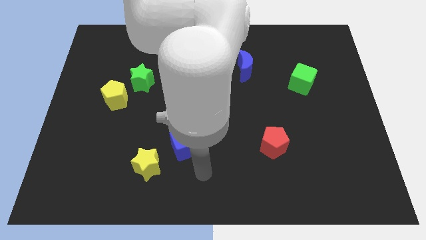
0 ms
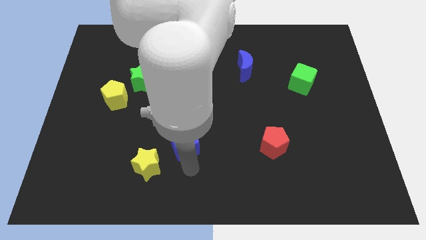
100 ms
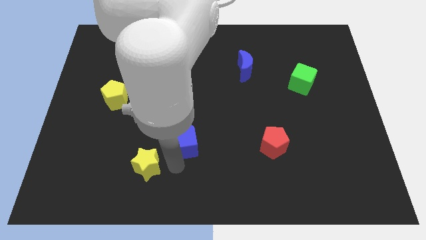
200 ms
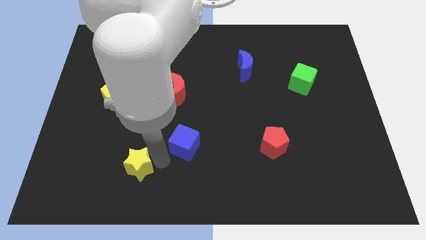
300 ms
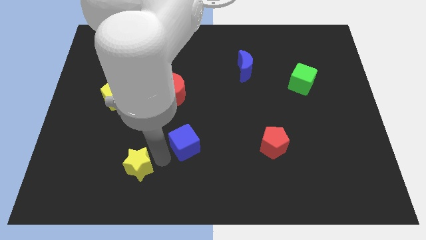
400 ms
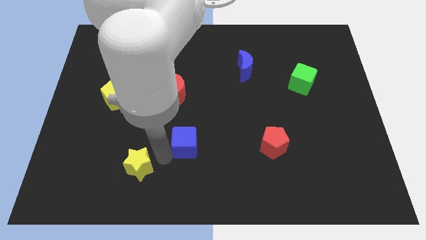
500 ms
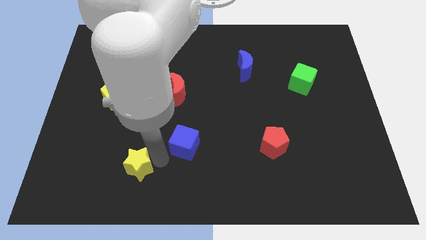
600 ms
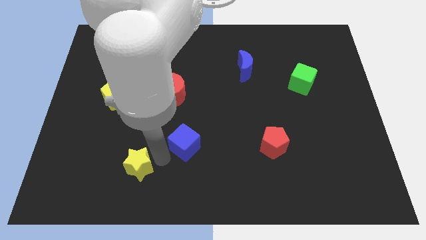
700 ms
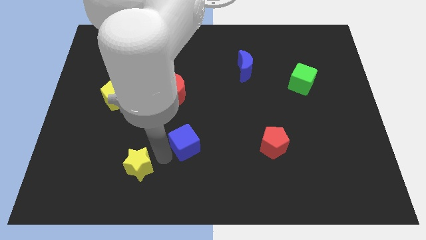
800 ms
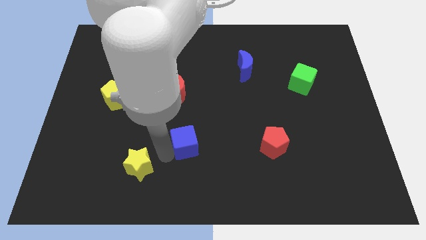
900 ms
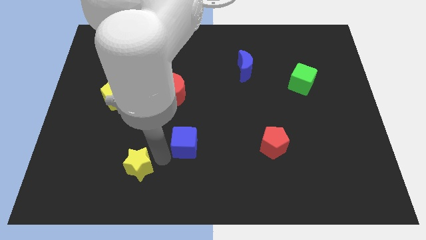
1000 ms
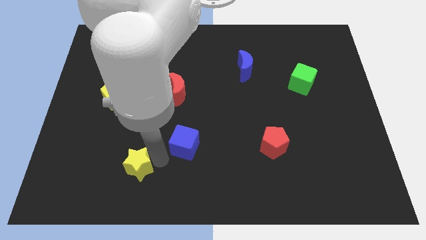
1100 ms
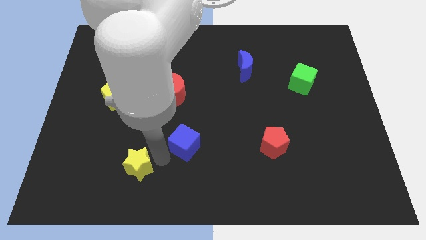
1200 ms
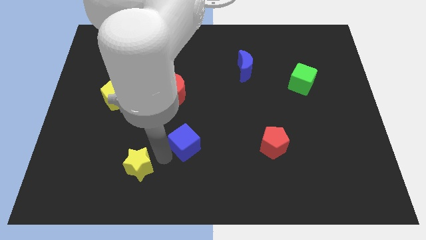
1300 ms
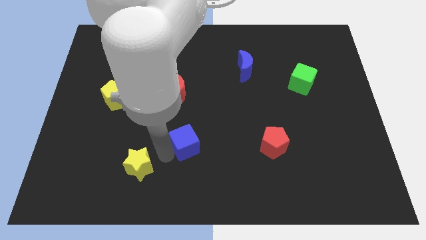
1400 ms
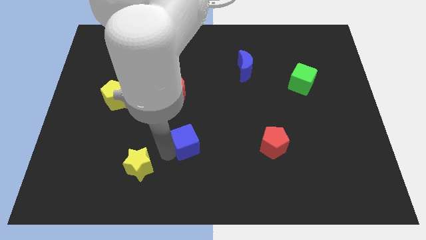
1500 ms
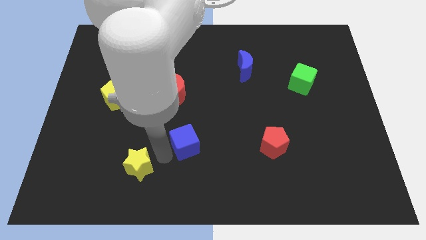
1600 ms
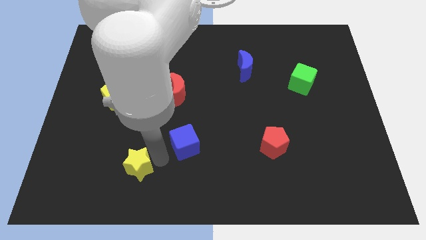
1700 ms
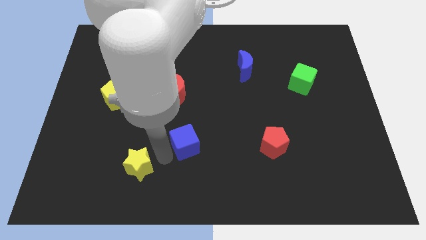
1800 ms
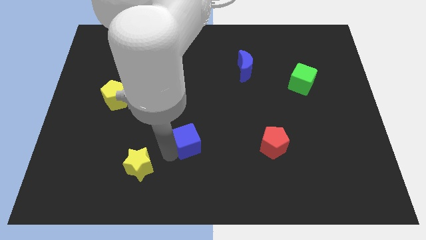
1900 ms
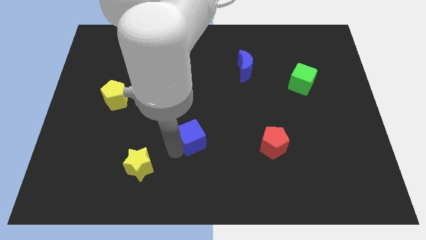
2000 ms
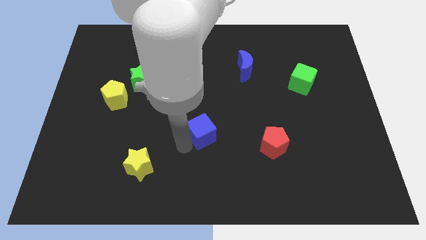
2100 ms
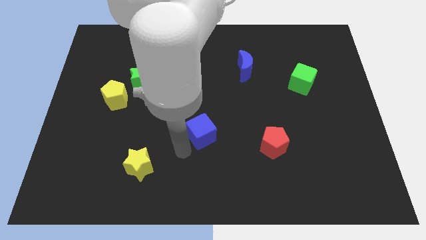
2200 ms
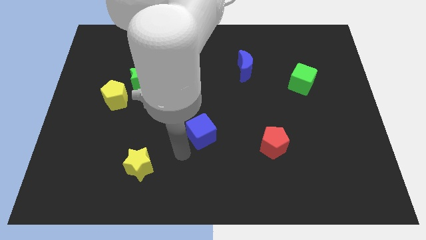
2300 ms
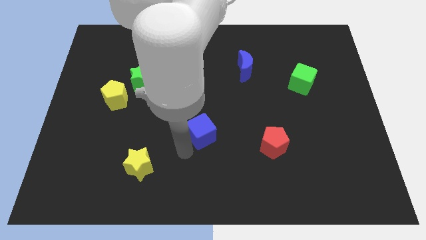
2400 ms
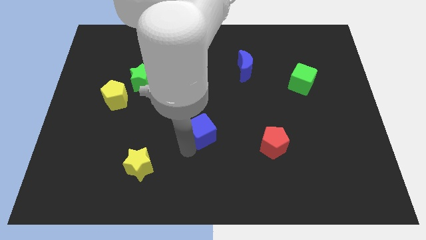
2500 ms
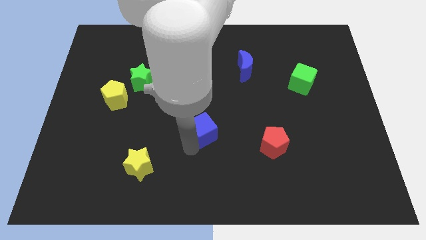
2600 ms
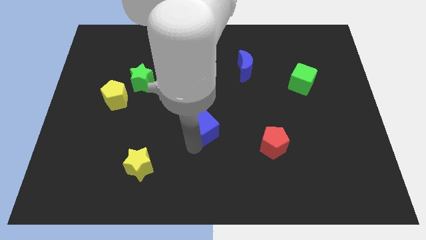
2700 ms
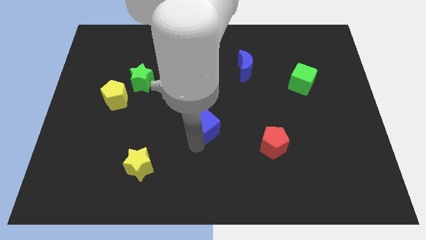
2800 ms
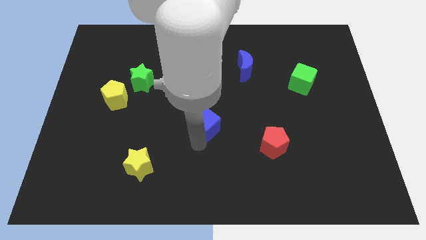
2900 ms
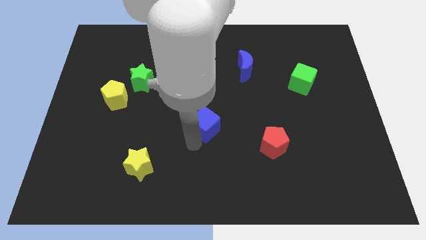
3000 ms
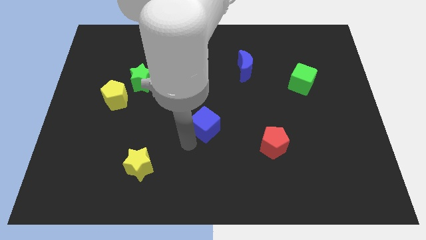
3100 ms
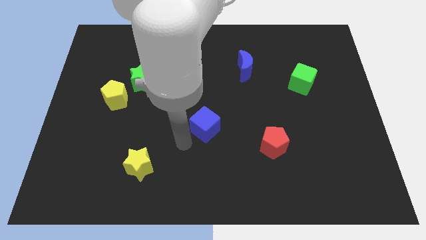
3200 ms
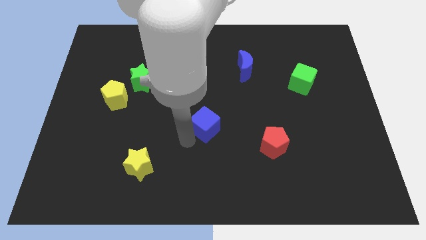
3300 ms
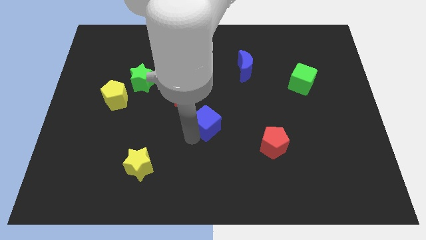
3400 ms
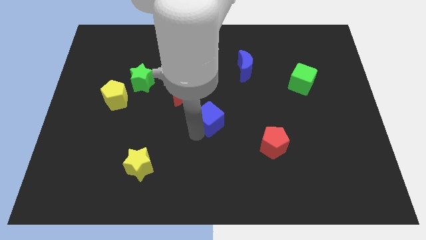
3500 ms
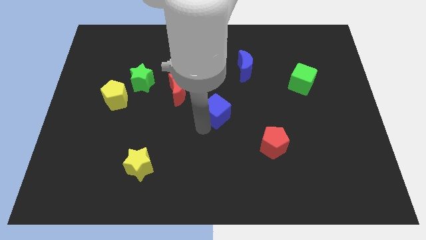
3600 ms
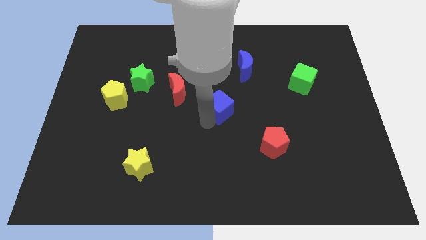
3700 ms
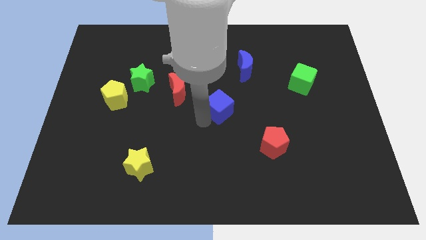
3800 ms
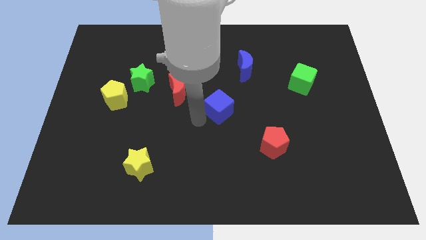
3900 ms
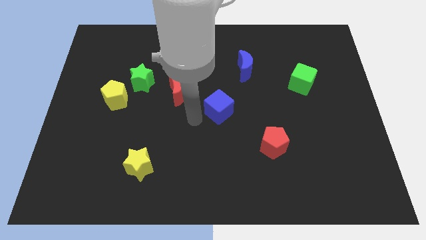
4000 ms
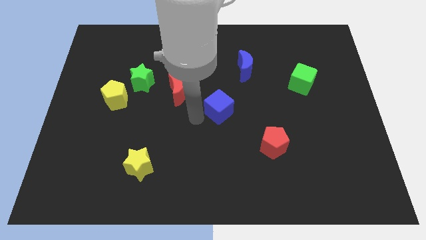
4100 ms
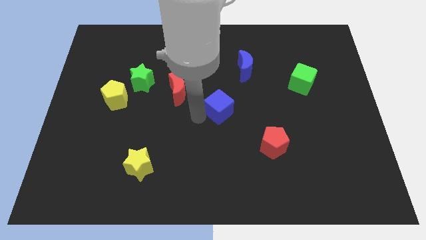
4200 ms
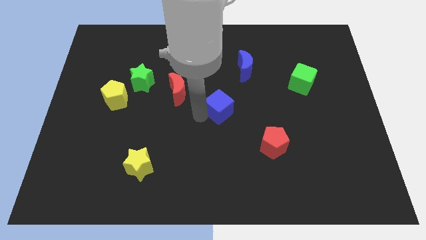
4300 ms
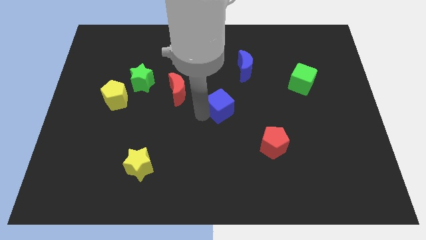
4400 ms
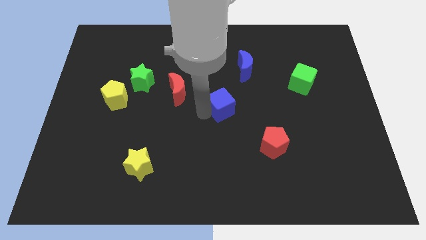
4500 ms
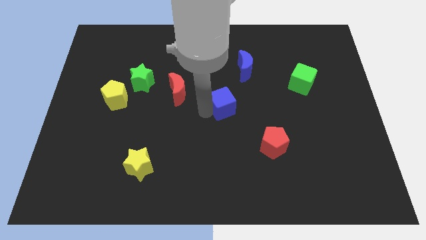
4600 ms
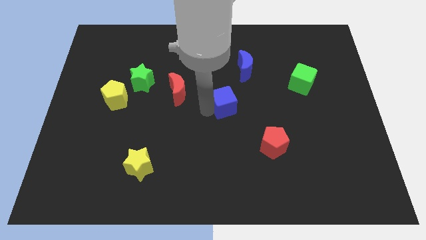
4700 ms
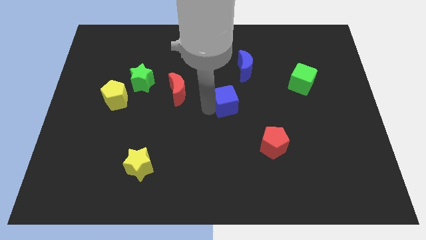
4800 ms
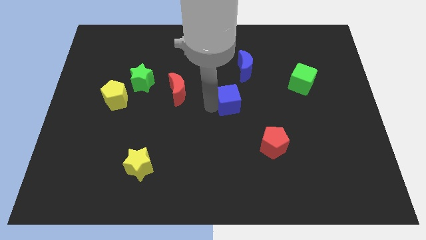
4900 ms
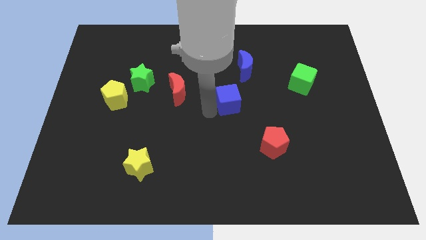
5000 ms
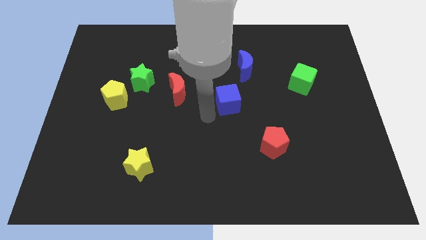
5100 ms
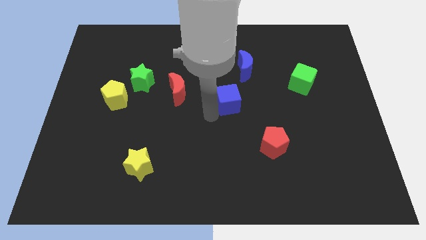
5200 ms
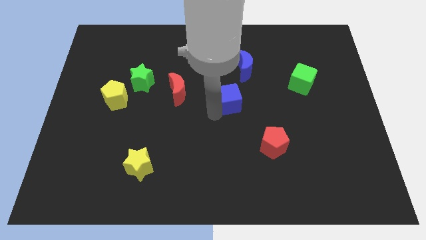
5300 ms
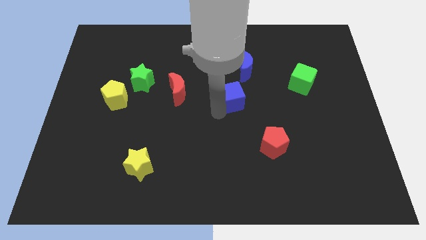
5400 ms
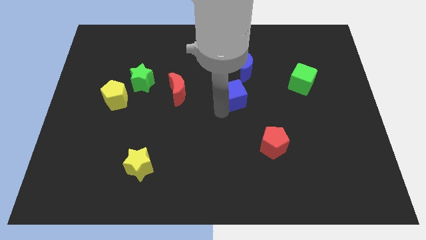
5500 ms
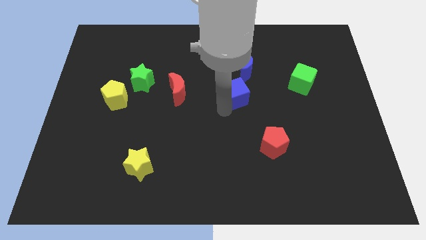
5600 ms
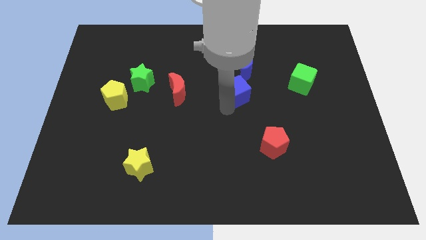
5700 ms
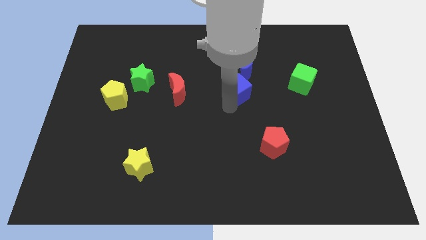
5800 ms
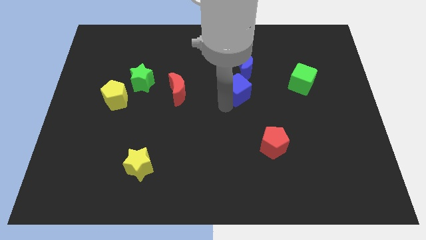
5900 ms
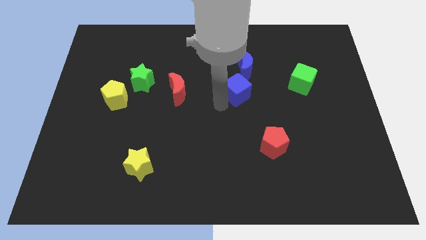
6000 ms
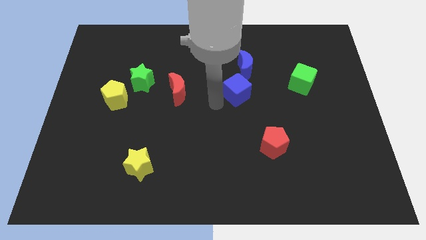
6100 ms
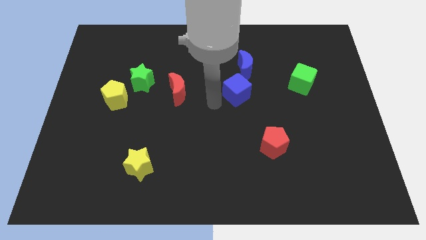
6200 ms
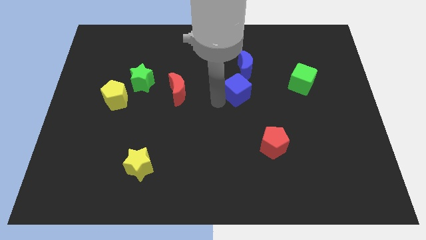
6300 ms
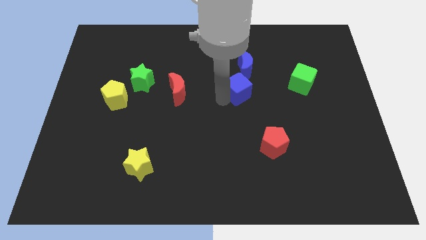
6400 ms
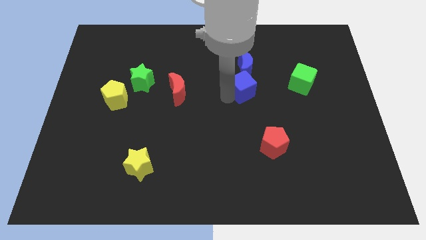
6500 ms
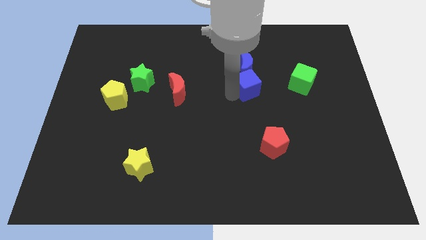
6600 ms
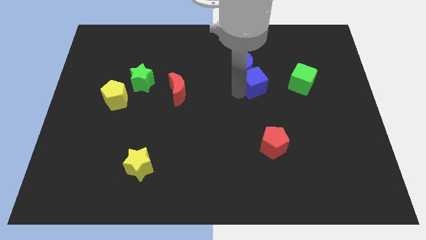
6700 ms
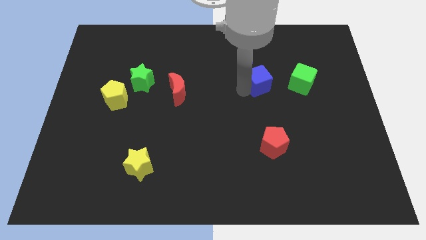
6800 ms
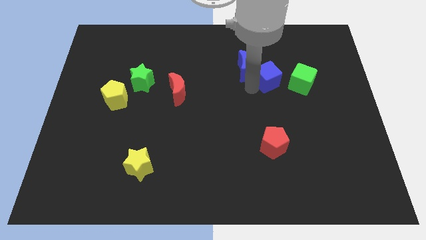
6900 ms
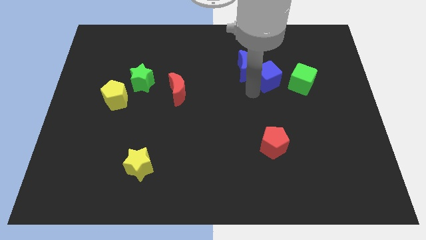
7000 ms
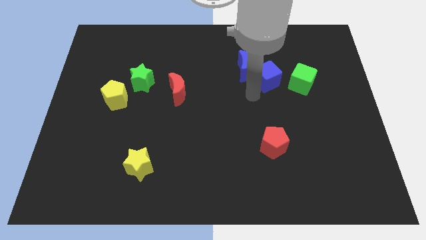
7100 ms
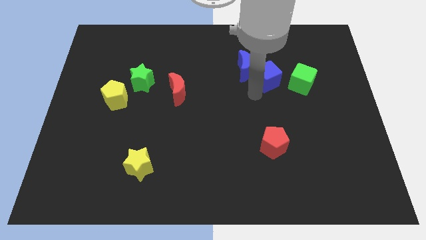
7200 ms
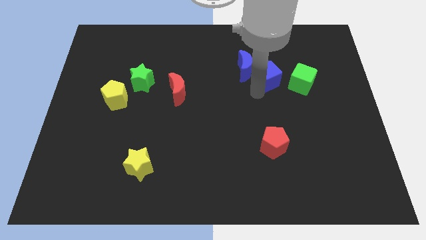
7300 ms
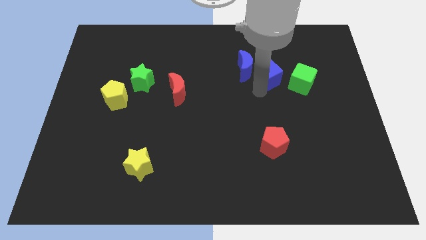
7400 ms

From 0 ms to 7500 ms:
push the blue cube to the top left of the green cube

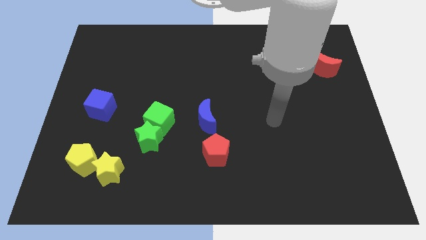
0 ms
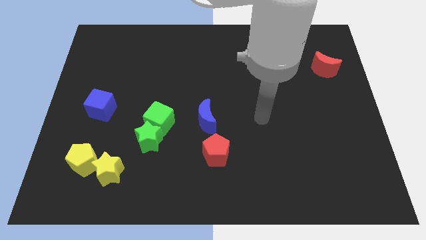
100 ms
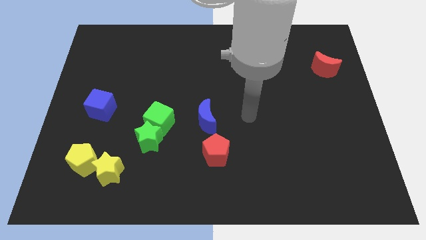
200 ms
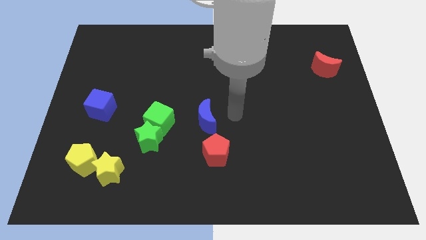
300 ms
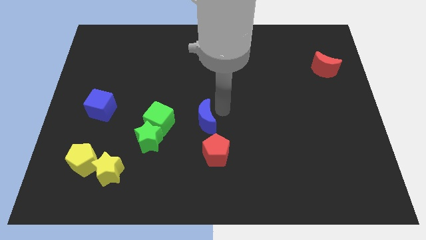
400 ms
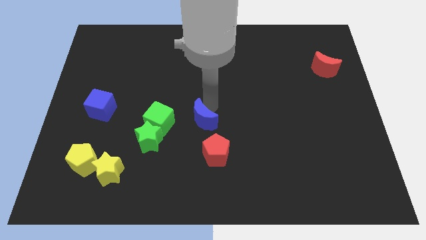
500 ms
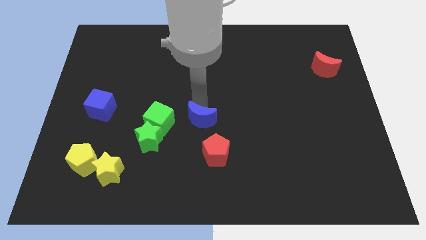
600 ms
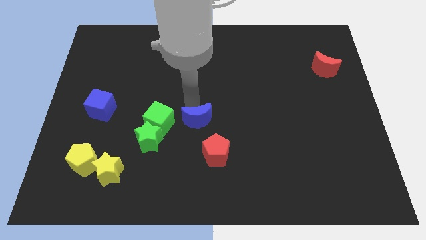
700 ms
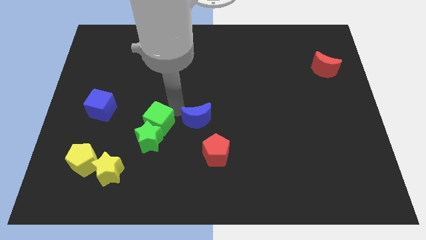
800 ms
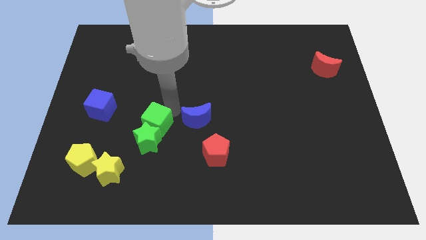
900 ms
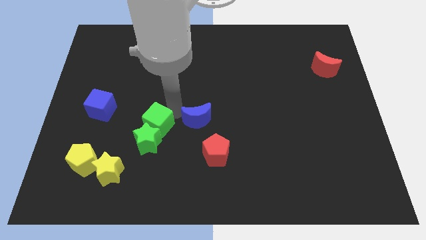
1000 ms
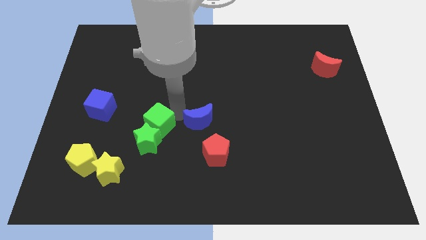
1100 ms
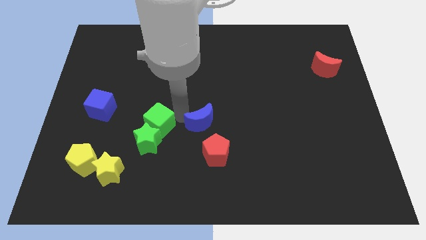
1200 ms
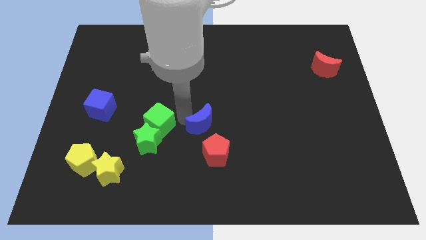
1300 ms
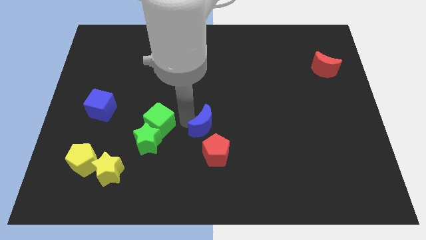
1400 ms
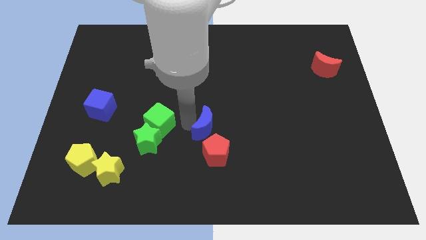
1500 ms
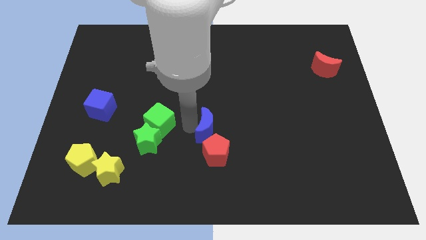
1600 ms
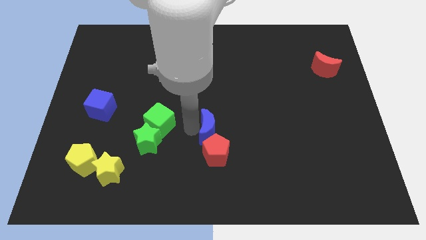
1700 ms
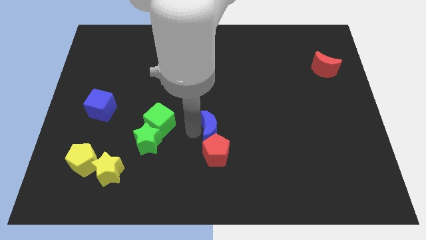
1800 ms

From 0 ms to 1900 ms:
put the blue moon to the top right of the red pentagon
